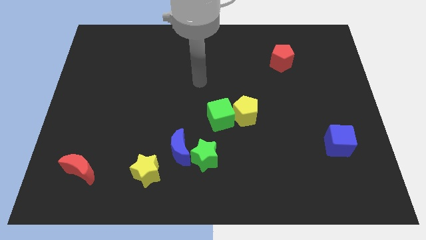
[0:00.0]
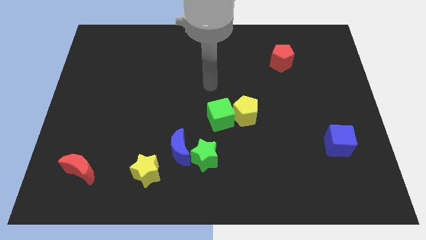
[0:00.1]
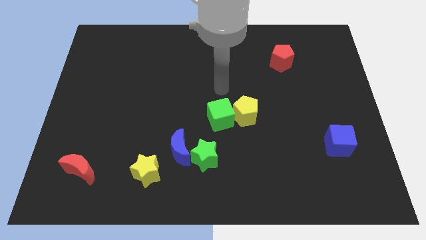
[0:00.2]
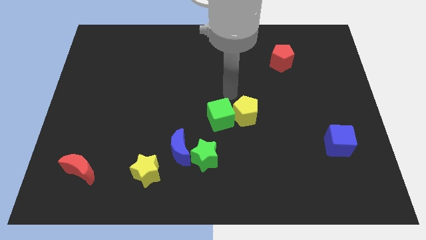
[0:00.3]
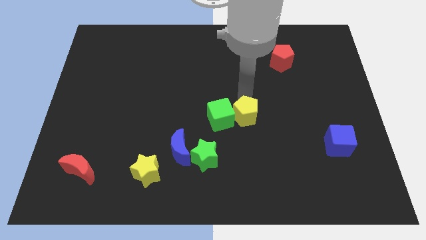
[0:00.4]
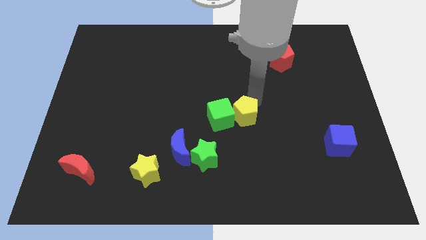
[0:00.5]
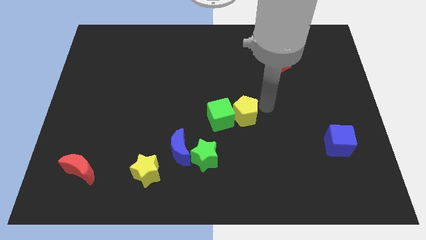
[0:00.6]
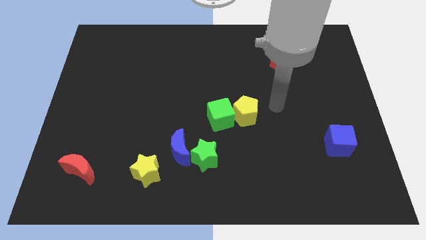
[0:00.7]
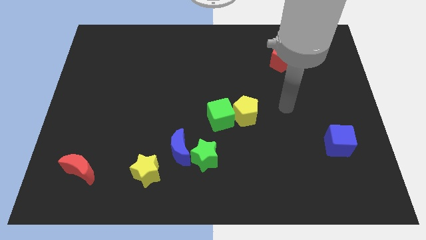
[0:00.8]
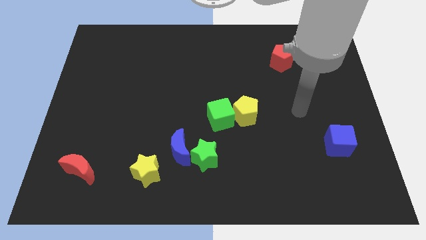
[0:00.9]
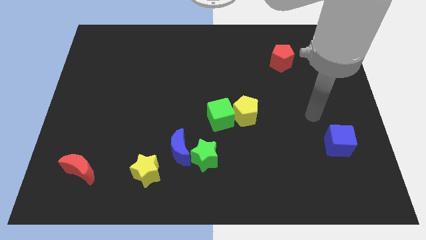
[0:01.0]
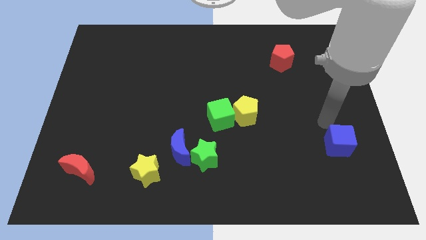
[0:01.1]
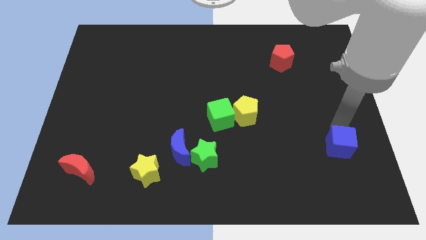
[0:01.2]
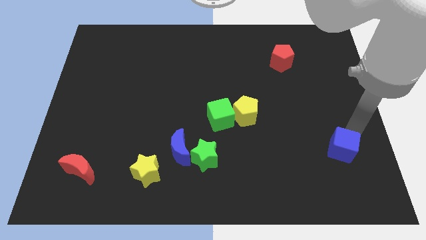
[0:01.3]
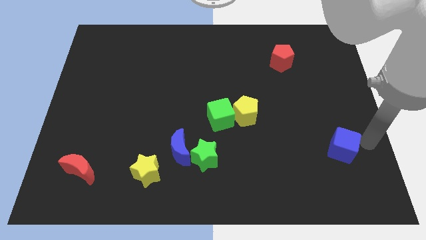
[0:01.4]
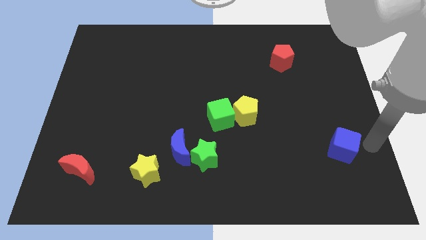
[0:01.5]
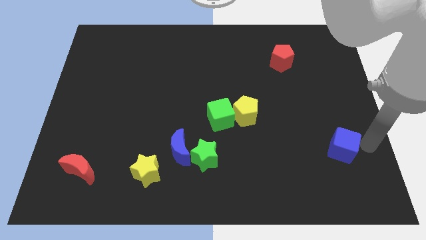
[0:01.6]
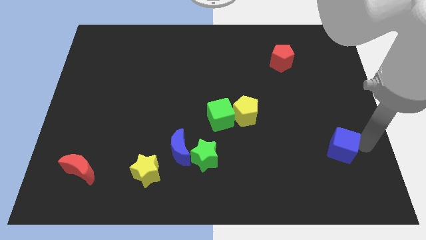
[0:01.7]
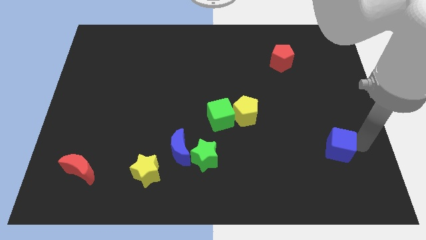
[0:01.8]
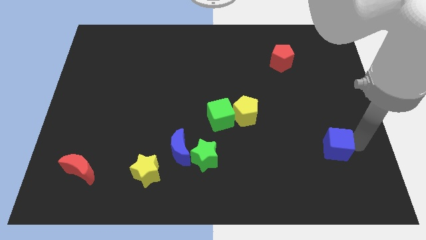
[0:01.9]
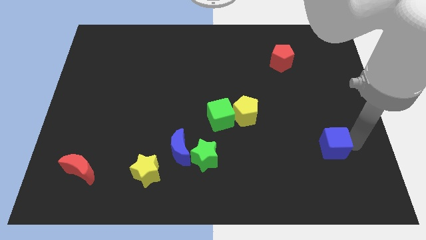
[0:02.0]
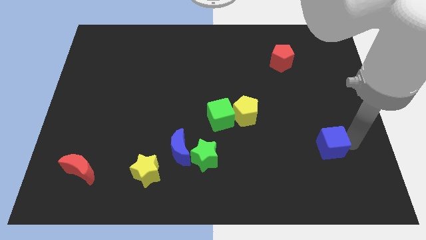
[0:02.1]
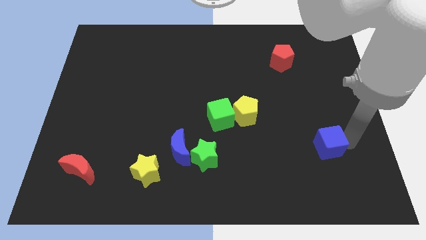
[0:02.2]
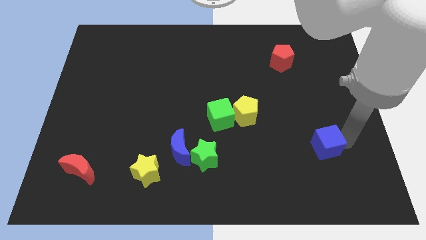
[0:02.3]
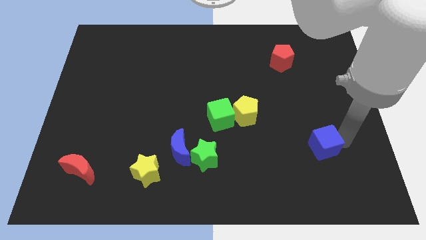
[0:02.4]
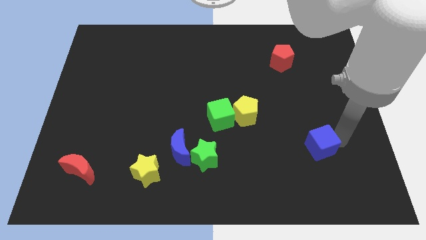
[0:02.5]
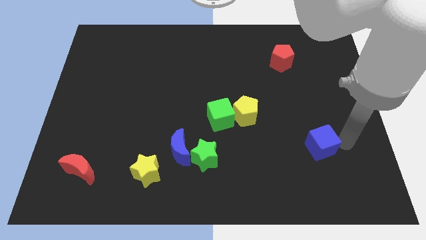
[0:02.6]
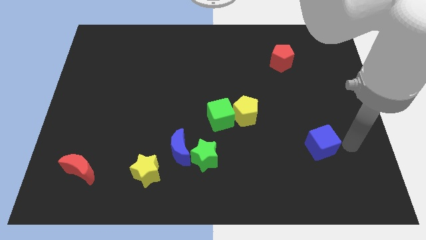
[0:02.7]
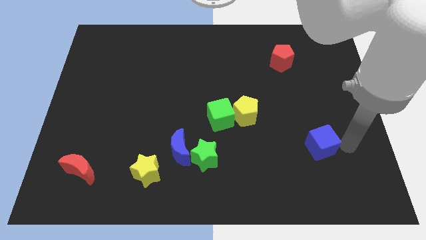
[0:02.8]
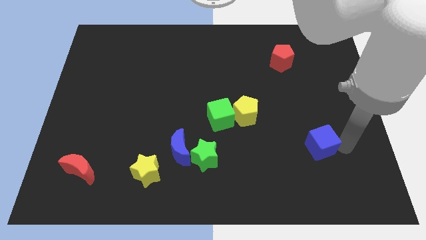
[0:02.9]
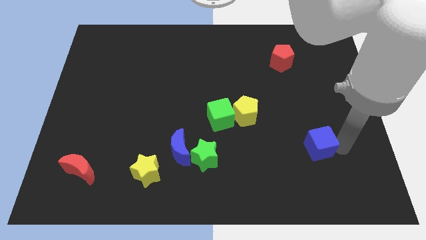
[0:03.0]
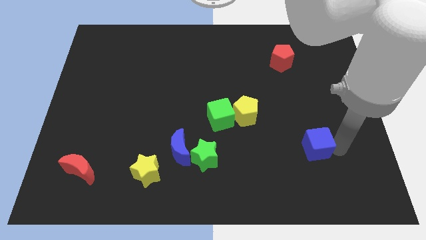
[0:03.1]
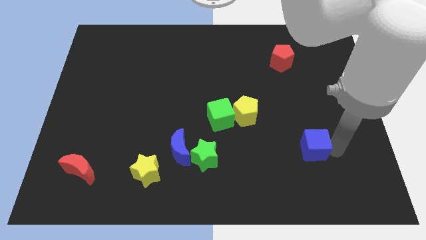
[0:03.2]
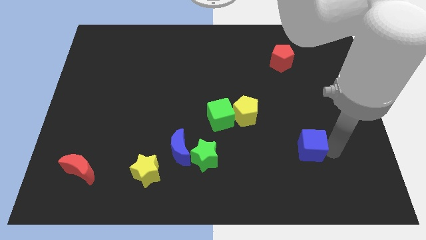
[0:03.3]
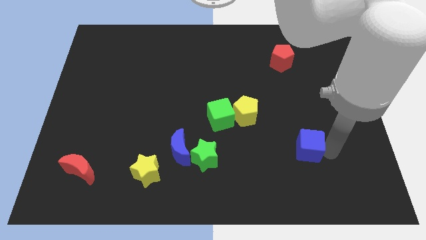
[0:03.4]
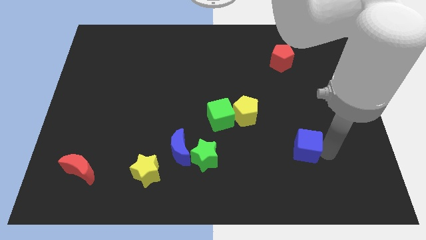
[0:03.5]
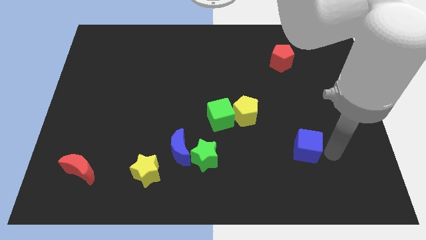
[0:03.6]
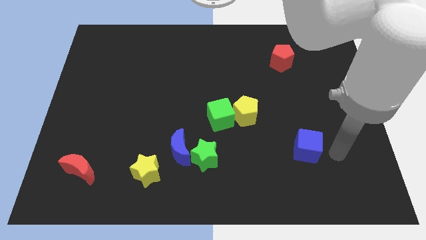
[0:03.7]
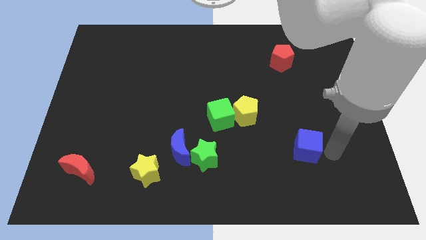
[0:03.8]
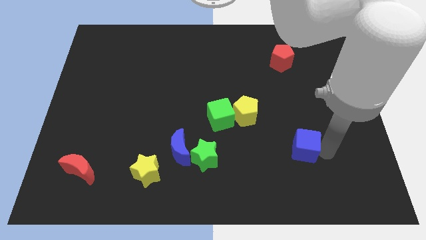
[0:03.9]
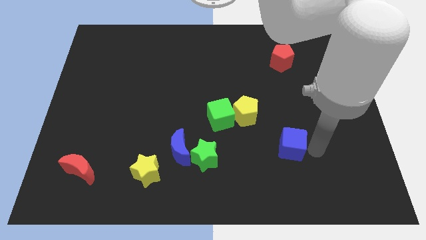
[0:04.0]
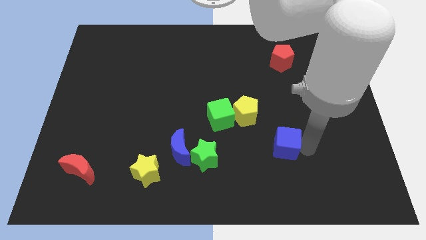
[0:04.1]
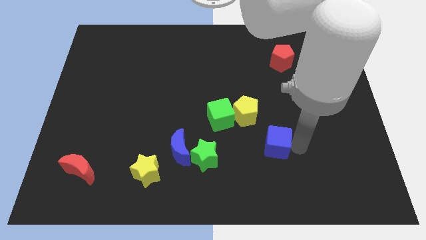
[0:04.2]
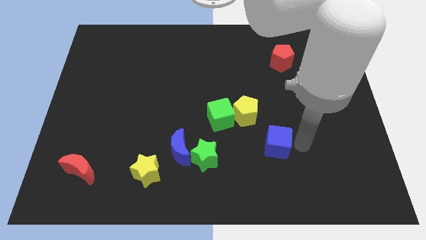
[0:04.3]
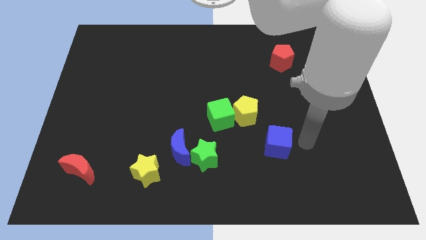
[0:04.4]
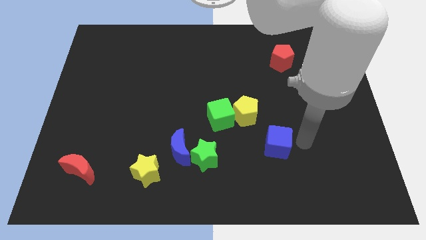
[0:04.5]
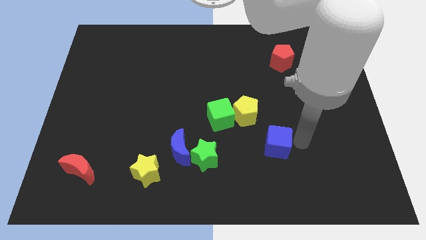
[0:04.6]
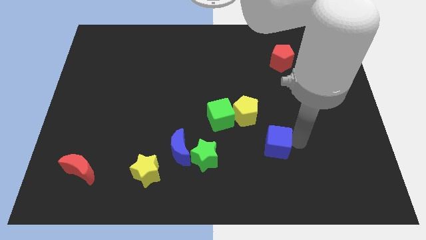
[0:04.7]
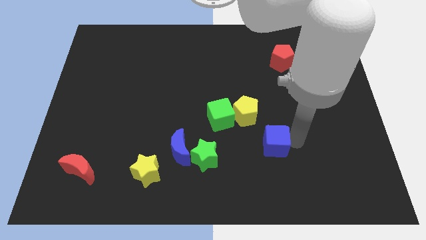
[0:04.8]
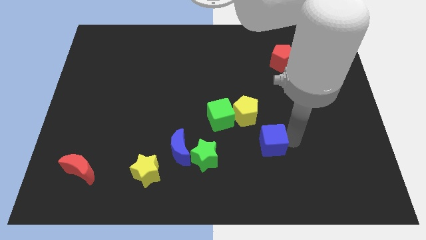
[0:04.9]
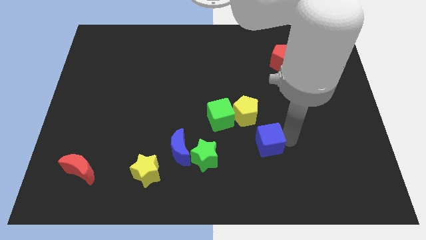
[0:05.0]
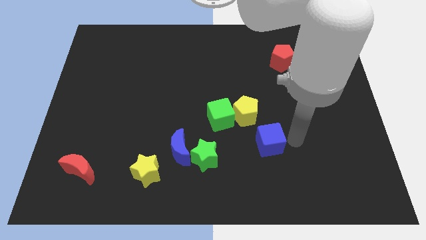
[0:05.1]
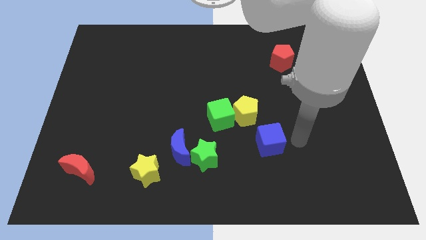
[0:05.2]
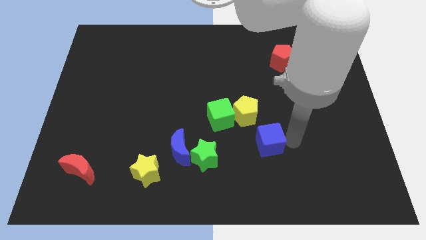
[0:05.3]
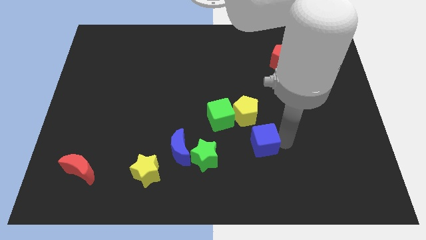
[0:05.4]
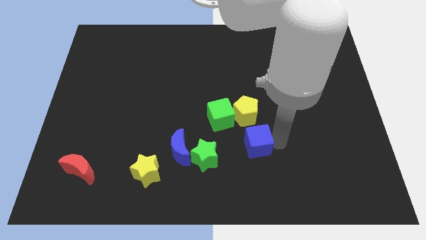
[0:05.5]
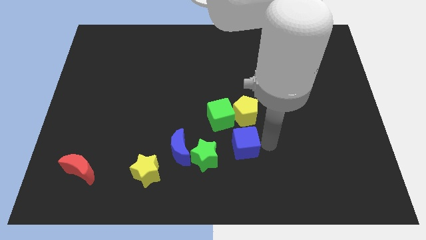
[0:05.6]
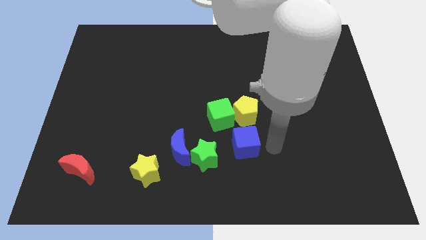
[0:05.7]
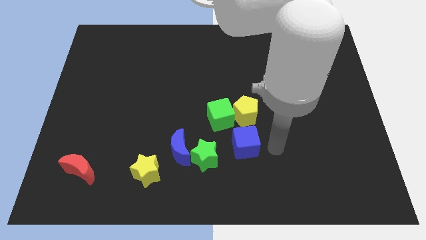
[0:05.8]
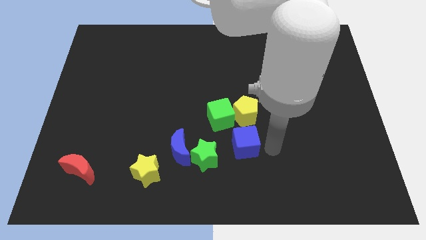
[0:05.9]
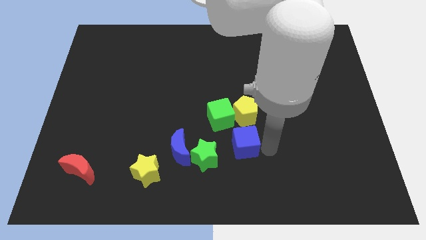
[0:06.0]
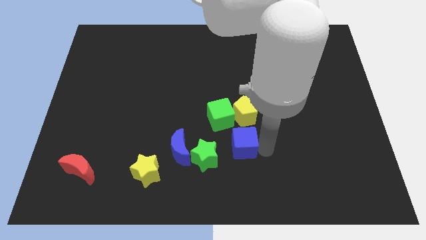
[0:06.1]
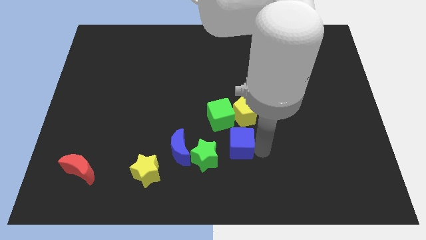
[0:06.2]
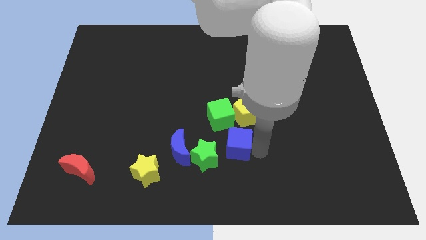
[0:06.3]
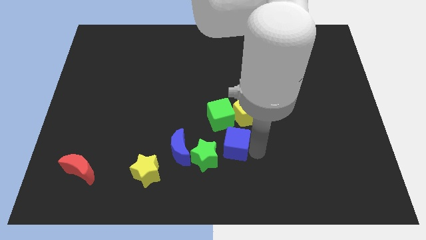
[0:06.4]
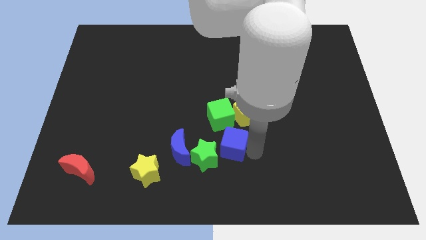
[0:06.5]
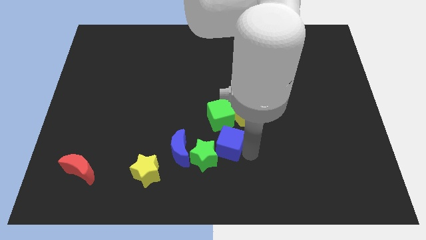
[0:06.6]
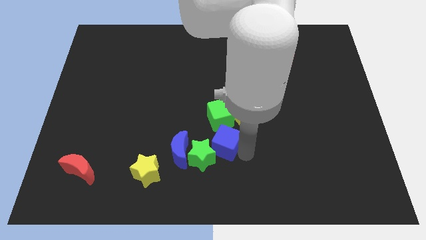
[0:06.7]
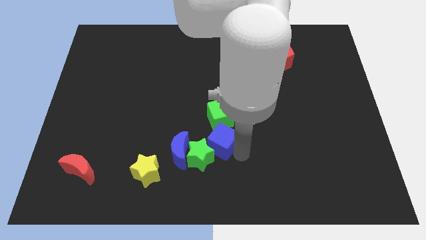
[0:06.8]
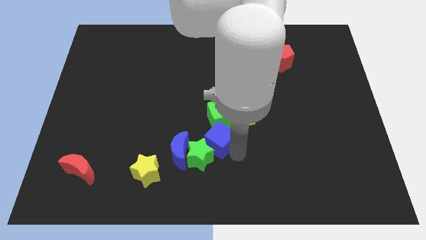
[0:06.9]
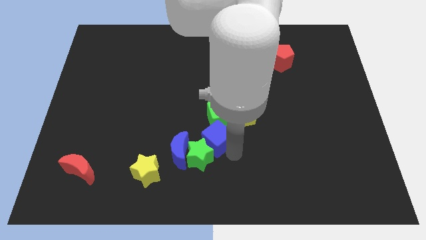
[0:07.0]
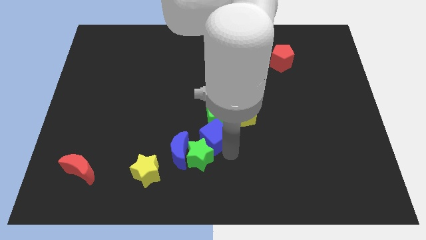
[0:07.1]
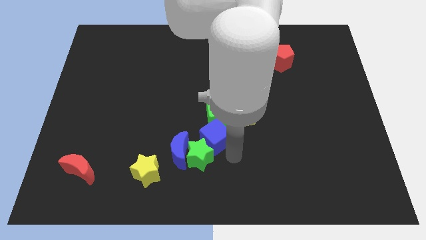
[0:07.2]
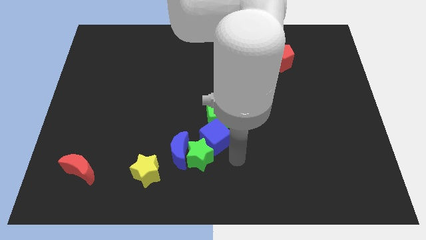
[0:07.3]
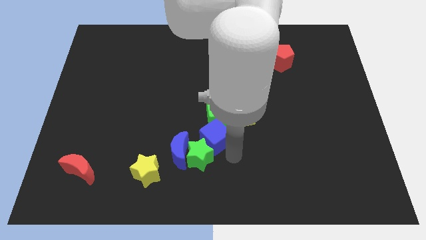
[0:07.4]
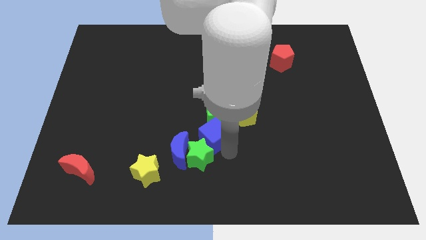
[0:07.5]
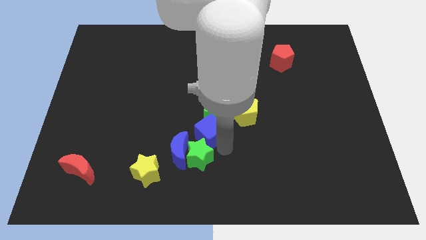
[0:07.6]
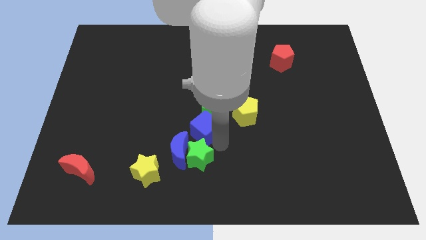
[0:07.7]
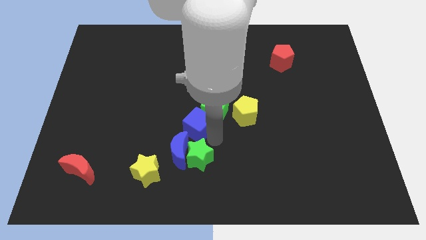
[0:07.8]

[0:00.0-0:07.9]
push the blue cube to the top of the blue moon
